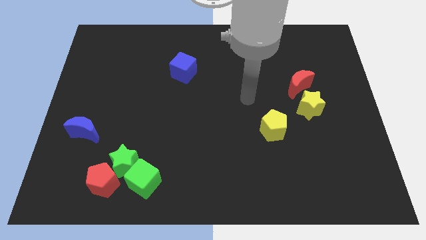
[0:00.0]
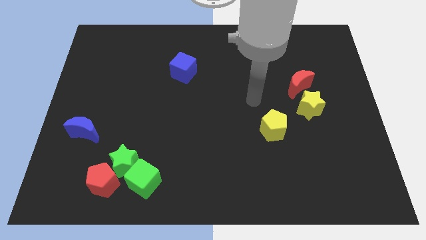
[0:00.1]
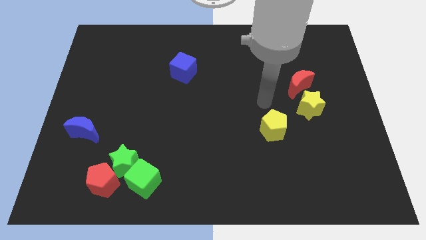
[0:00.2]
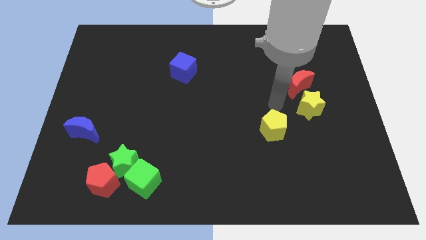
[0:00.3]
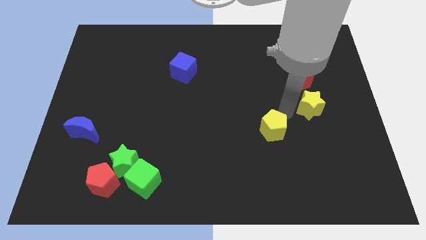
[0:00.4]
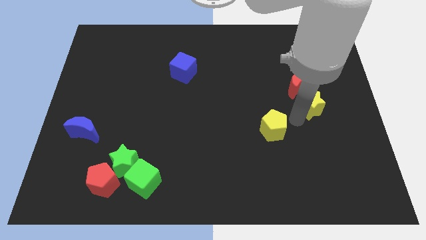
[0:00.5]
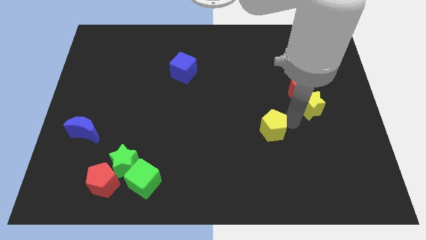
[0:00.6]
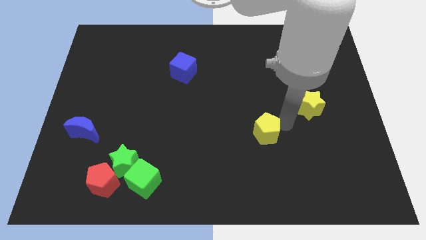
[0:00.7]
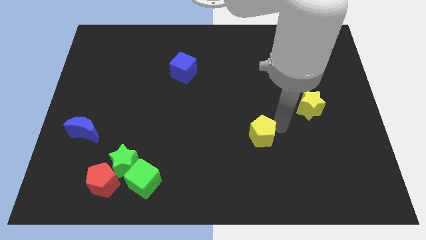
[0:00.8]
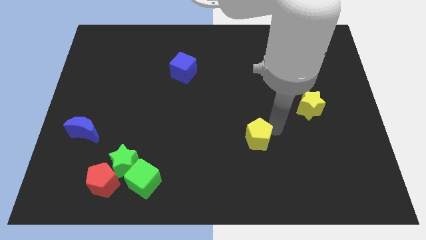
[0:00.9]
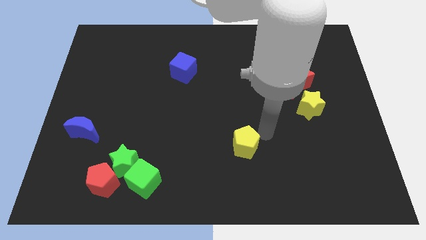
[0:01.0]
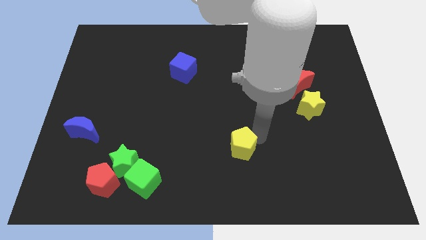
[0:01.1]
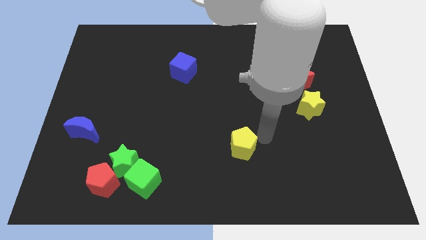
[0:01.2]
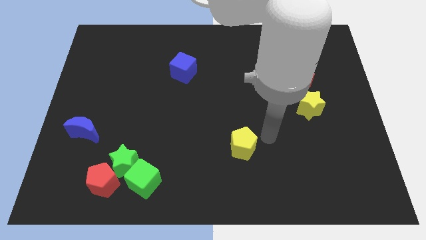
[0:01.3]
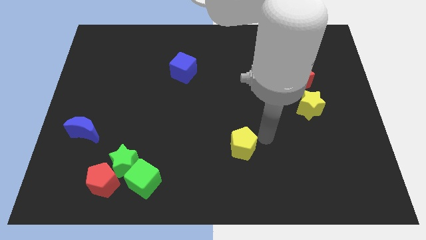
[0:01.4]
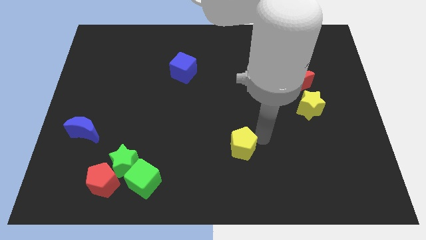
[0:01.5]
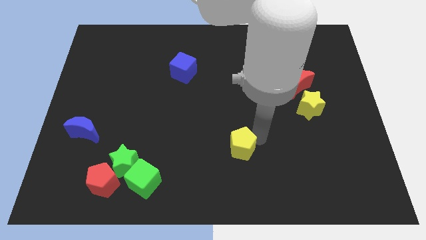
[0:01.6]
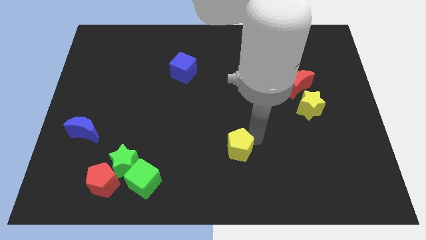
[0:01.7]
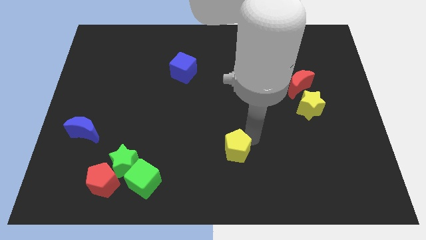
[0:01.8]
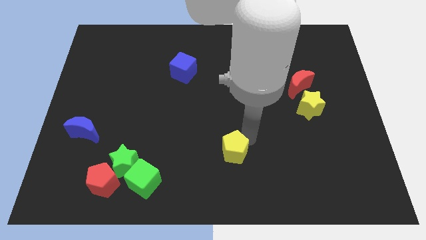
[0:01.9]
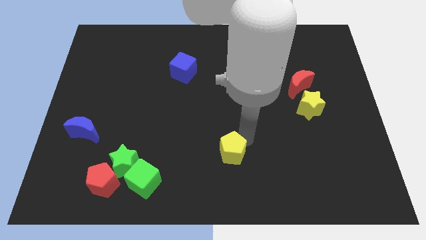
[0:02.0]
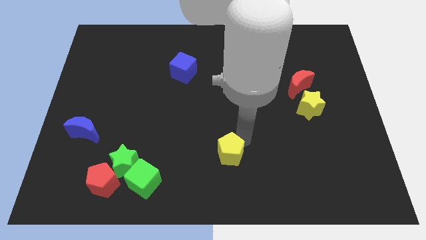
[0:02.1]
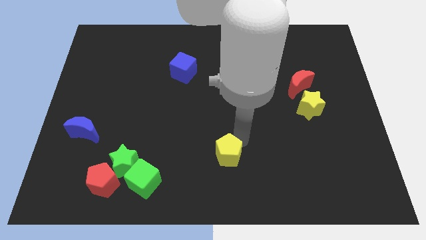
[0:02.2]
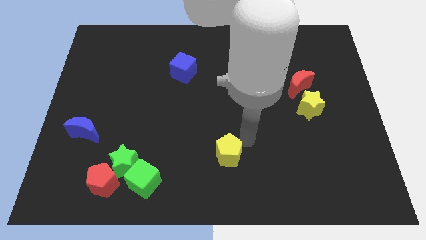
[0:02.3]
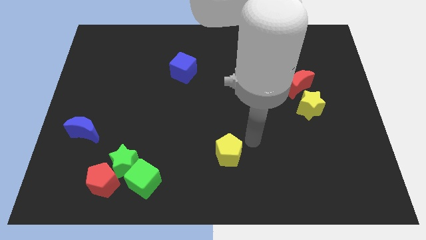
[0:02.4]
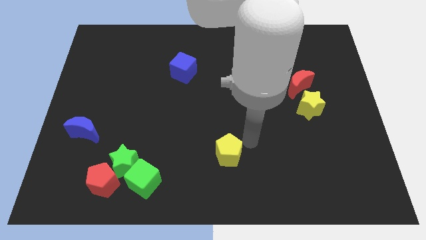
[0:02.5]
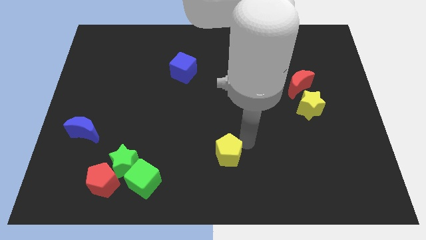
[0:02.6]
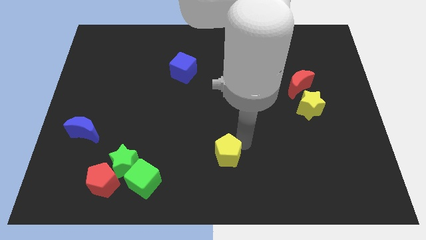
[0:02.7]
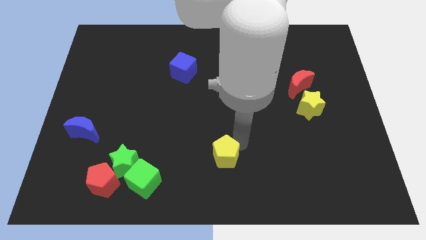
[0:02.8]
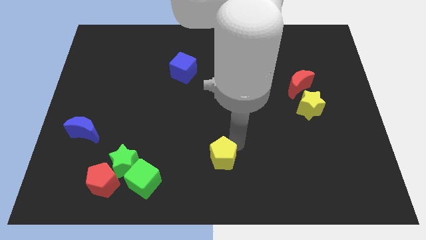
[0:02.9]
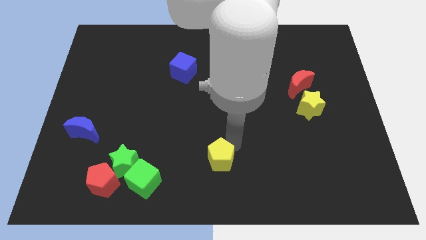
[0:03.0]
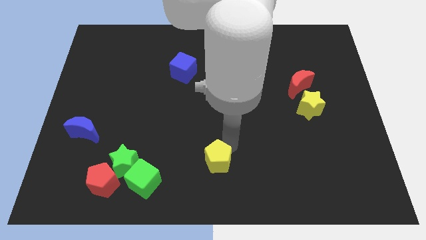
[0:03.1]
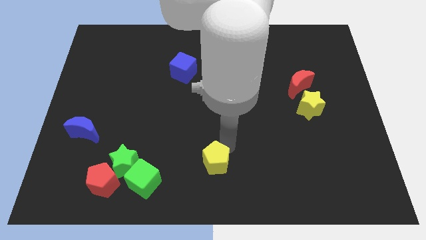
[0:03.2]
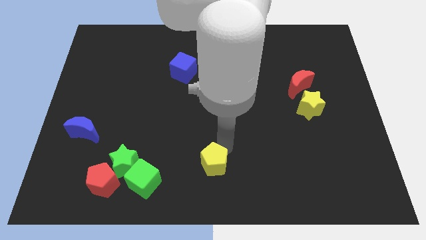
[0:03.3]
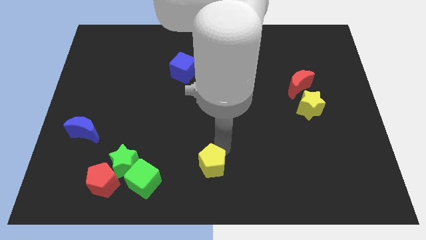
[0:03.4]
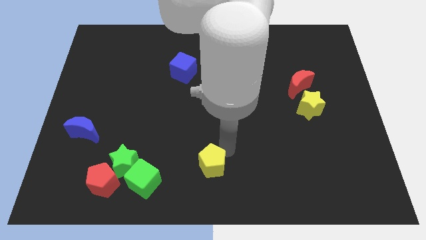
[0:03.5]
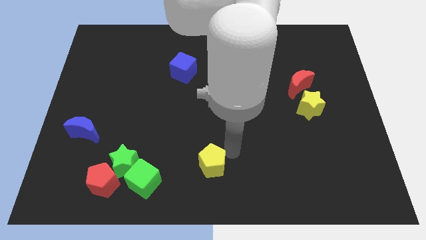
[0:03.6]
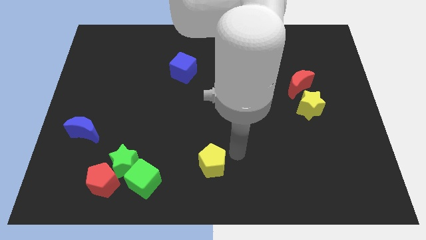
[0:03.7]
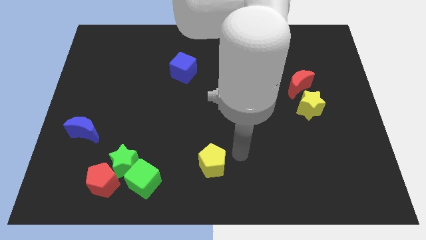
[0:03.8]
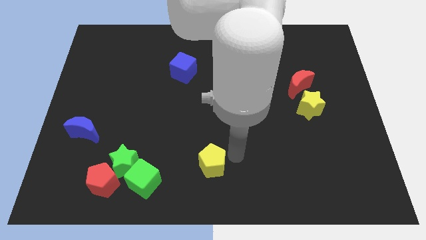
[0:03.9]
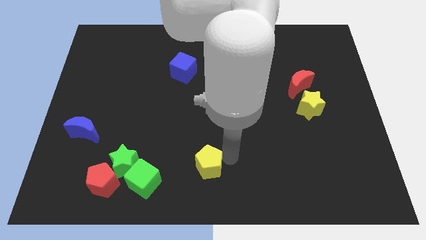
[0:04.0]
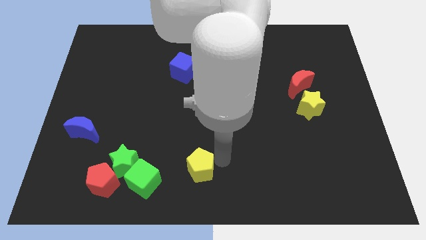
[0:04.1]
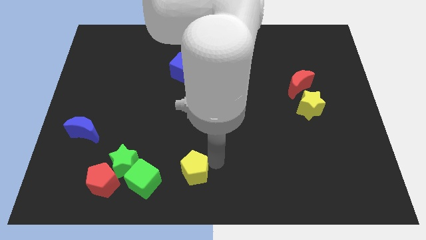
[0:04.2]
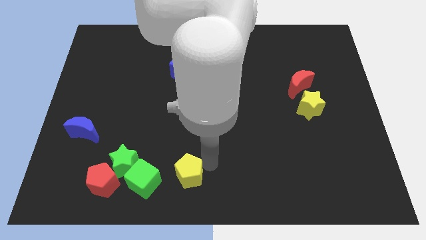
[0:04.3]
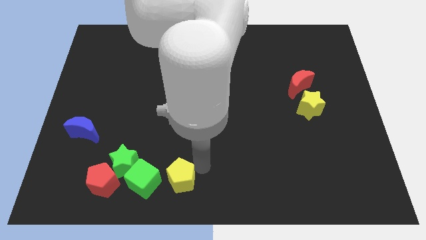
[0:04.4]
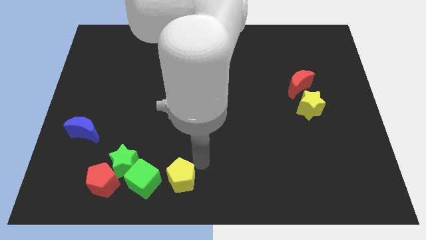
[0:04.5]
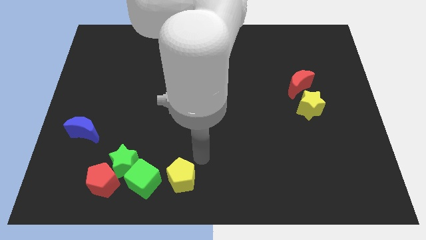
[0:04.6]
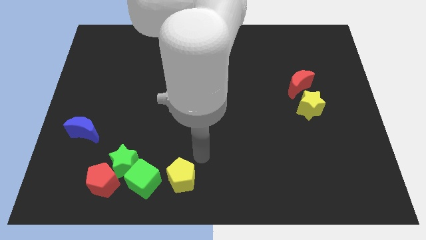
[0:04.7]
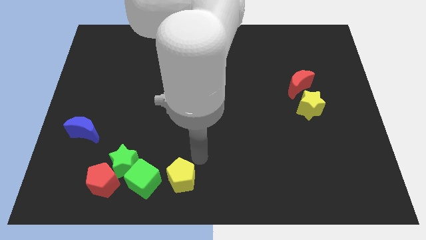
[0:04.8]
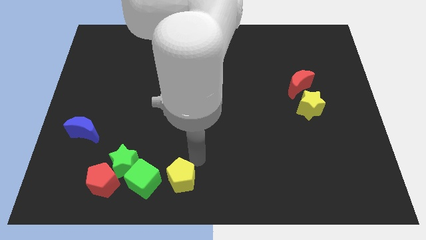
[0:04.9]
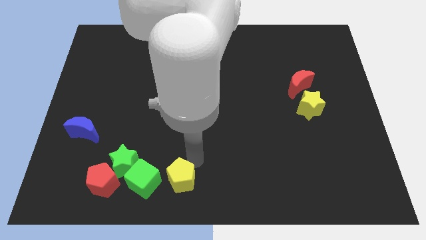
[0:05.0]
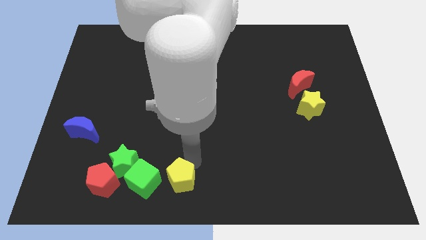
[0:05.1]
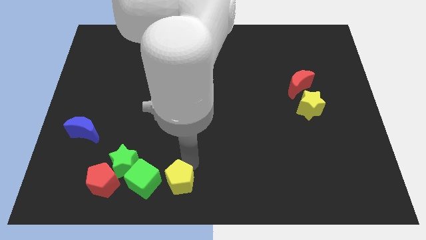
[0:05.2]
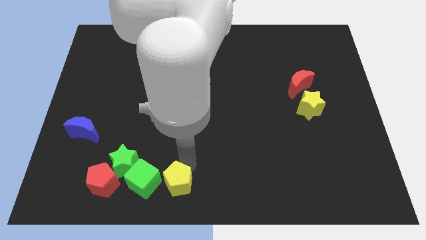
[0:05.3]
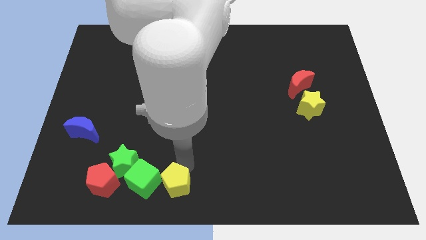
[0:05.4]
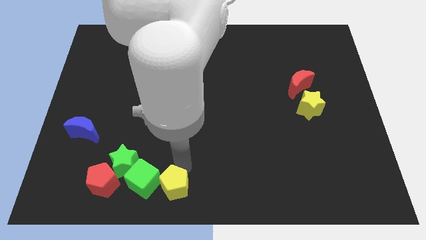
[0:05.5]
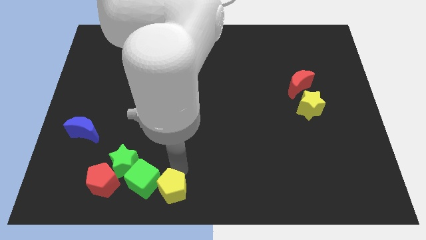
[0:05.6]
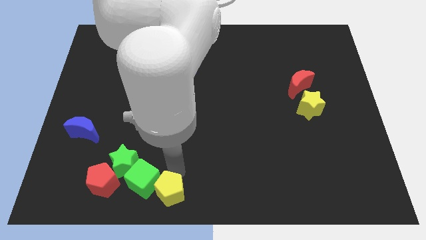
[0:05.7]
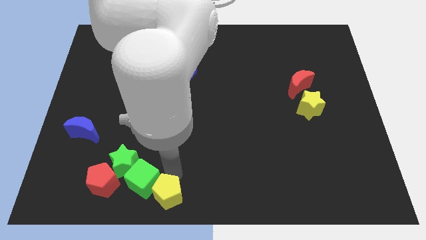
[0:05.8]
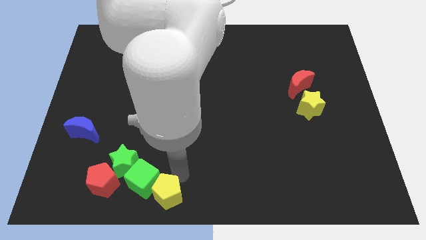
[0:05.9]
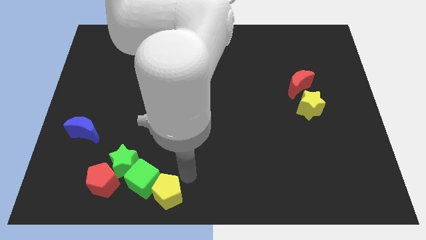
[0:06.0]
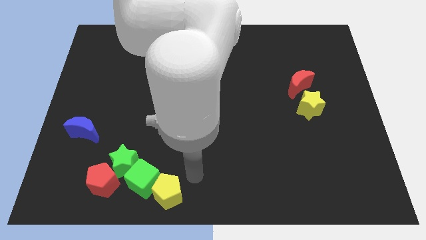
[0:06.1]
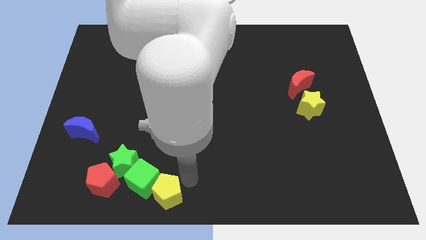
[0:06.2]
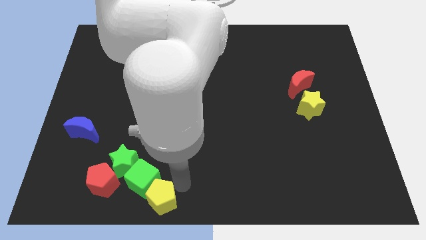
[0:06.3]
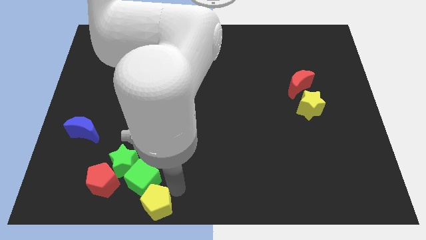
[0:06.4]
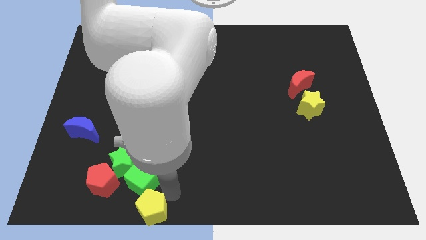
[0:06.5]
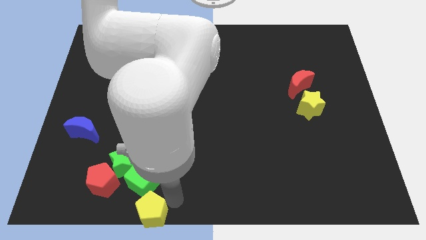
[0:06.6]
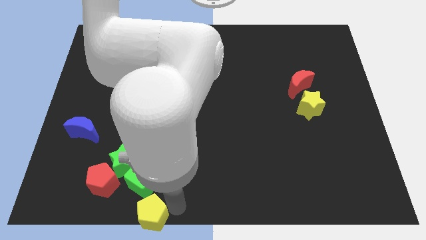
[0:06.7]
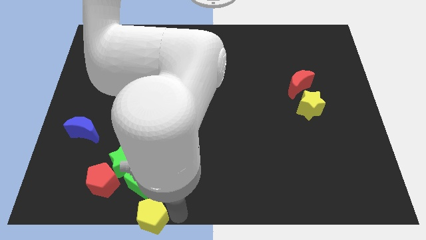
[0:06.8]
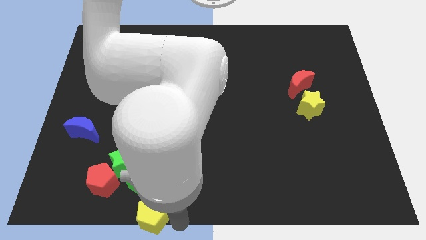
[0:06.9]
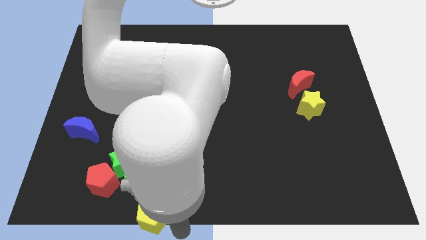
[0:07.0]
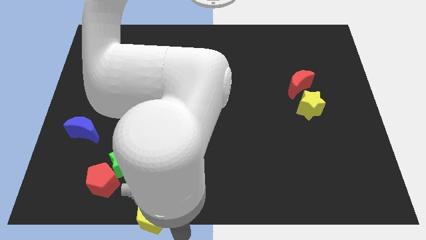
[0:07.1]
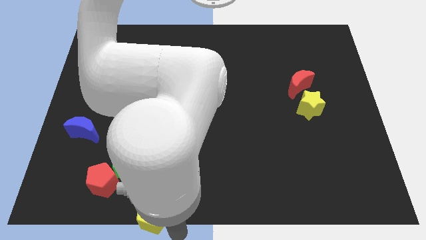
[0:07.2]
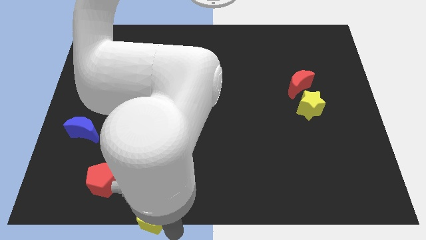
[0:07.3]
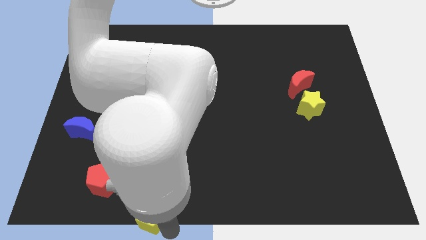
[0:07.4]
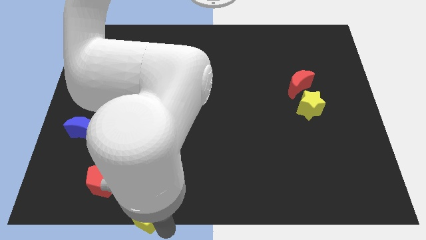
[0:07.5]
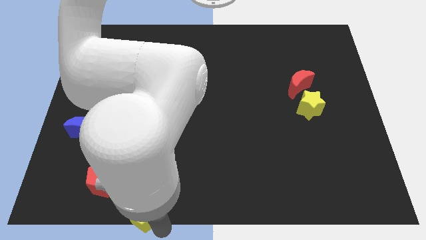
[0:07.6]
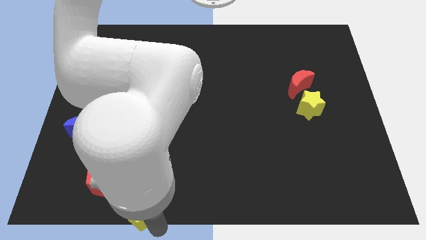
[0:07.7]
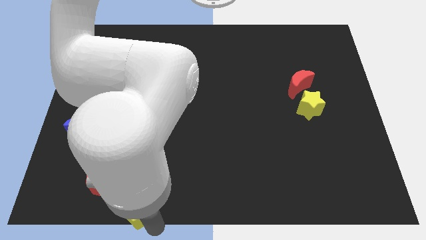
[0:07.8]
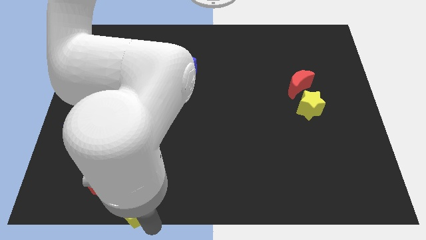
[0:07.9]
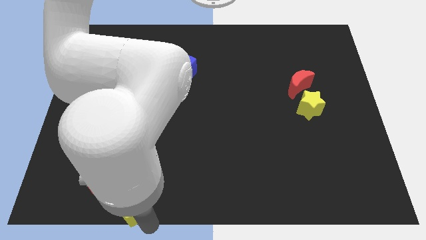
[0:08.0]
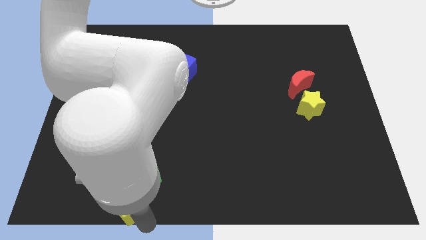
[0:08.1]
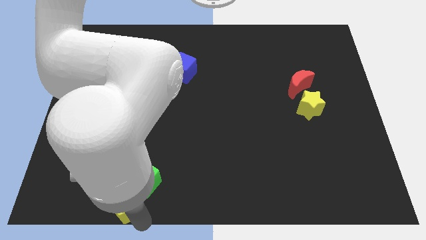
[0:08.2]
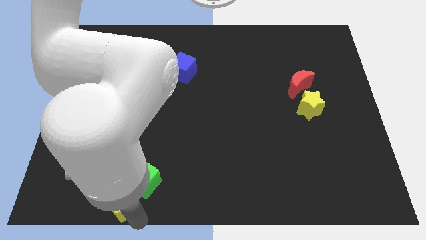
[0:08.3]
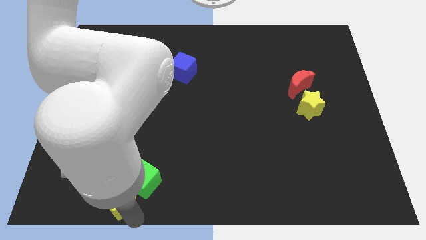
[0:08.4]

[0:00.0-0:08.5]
slide the yellow pentagon to the red pentagon
